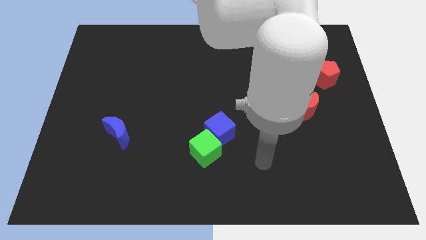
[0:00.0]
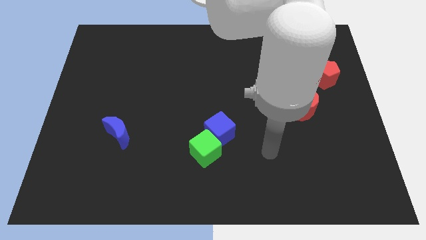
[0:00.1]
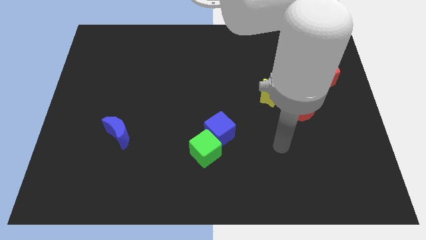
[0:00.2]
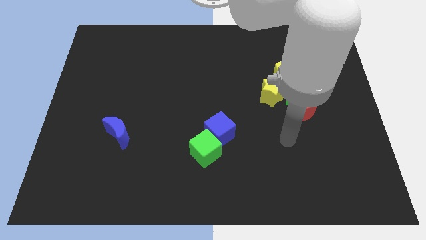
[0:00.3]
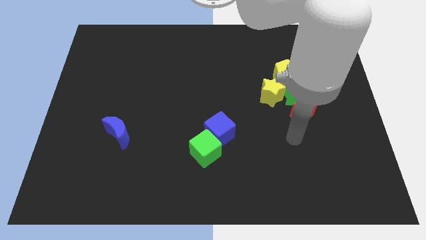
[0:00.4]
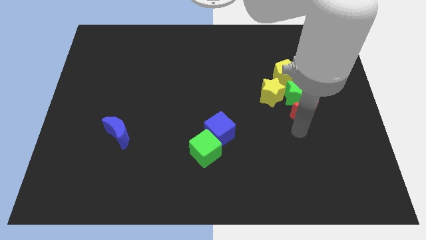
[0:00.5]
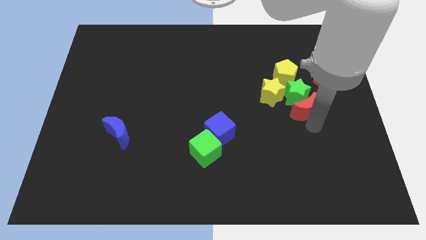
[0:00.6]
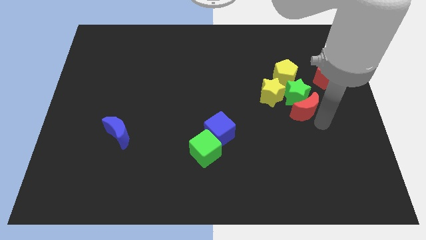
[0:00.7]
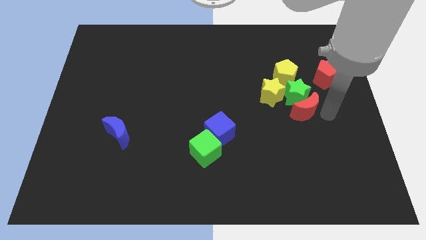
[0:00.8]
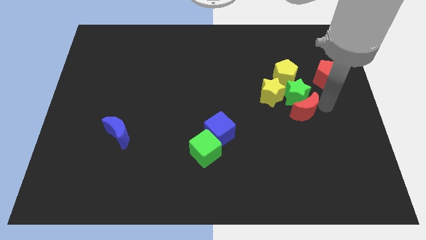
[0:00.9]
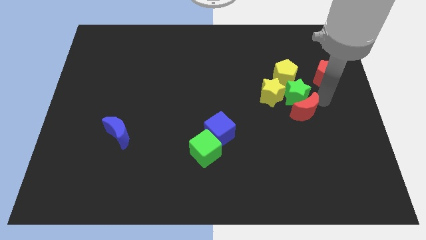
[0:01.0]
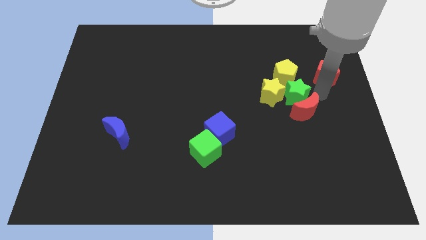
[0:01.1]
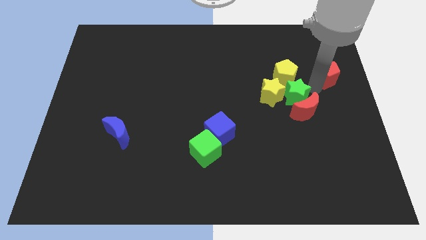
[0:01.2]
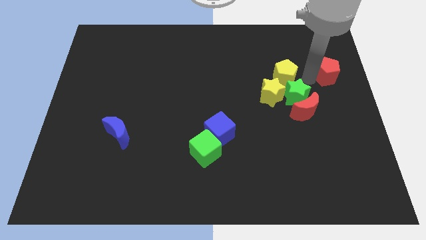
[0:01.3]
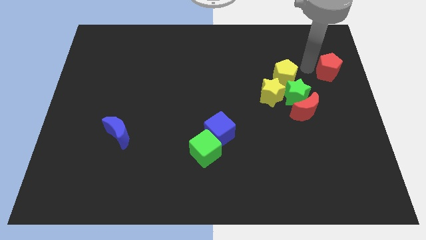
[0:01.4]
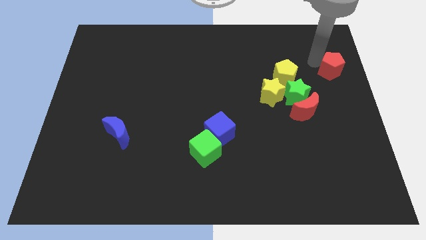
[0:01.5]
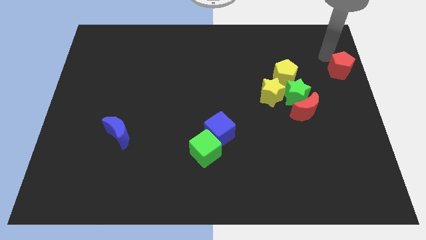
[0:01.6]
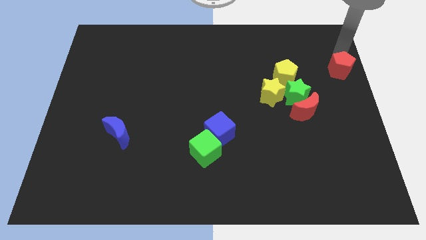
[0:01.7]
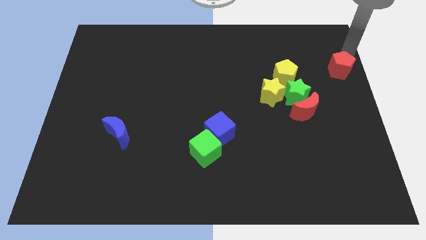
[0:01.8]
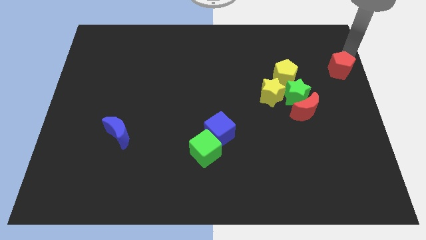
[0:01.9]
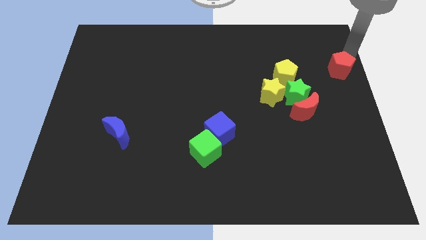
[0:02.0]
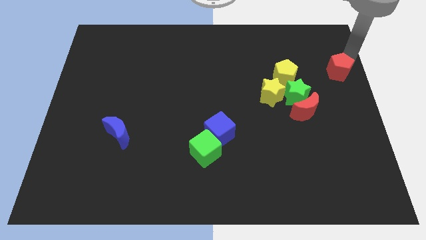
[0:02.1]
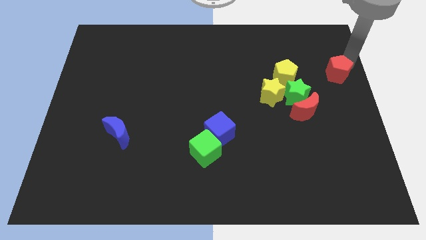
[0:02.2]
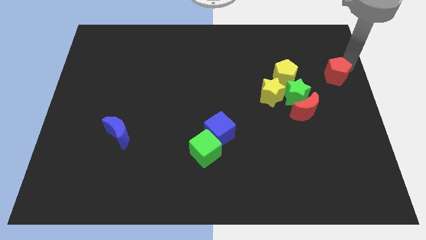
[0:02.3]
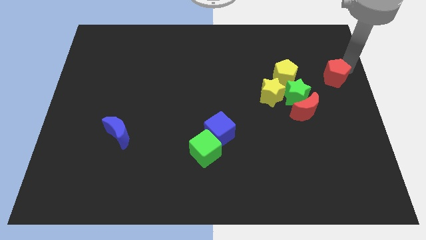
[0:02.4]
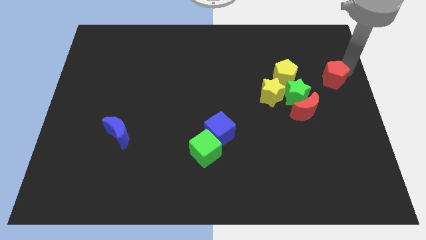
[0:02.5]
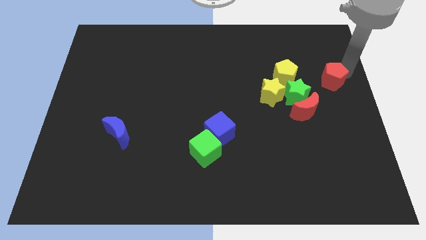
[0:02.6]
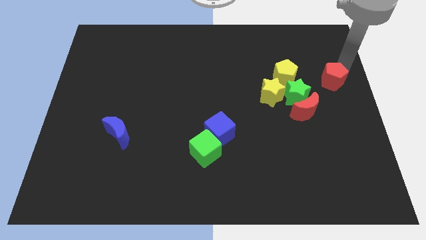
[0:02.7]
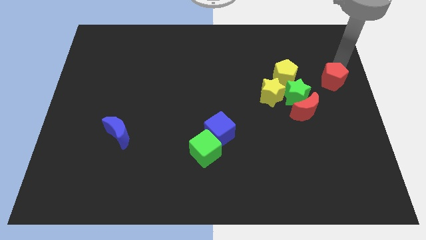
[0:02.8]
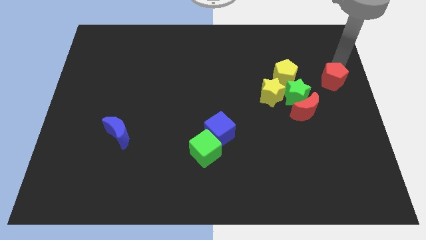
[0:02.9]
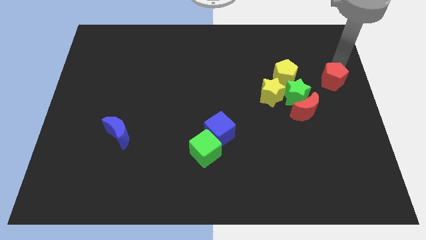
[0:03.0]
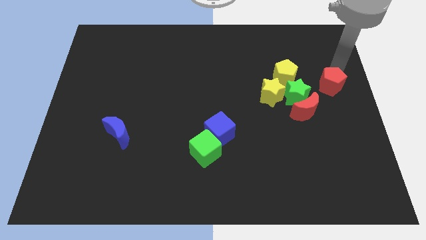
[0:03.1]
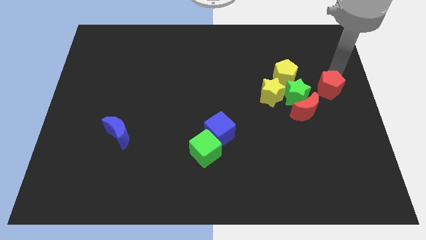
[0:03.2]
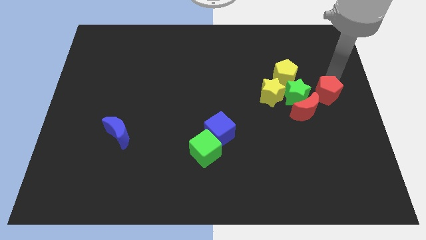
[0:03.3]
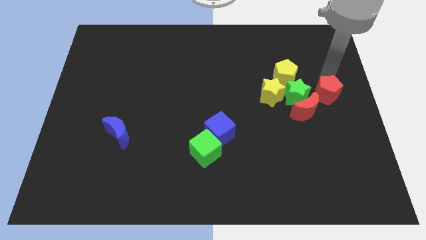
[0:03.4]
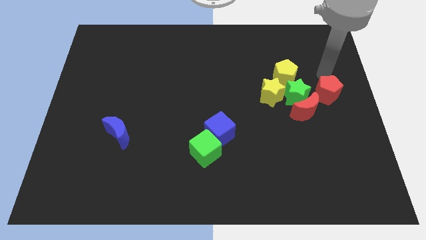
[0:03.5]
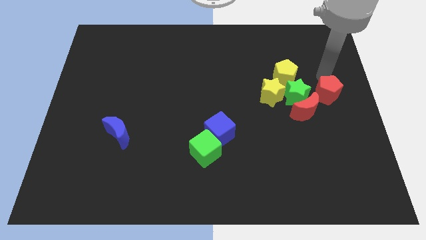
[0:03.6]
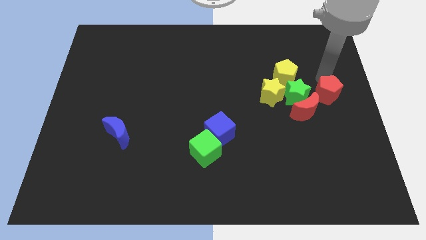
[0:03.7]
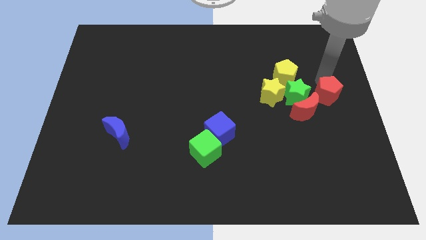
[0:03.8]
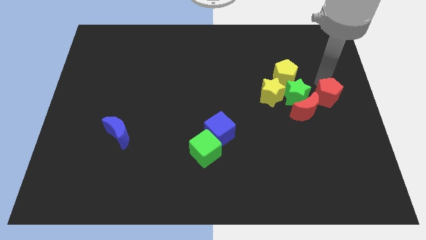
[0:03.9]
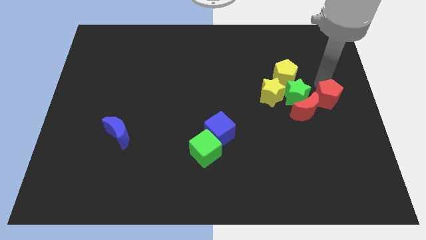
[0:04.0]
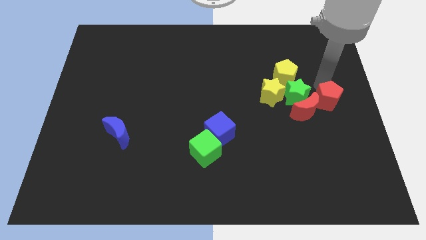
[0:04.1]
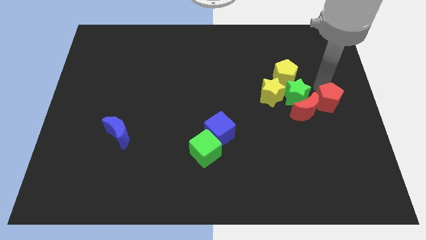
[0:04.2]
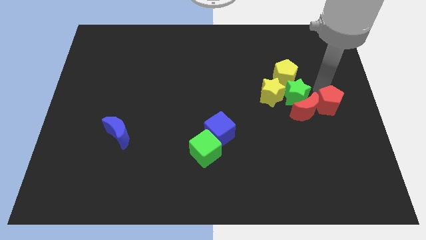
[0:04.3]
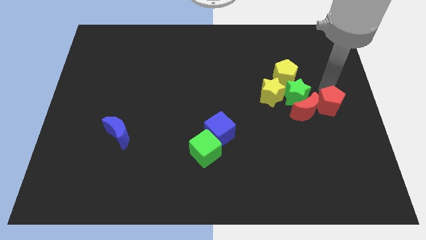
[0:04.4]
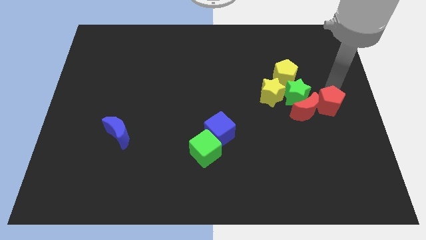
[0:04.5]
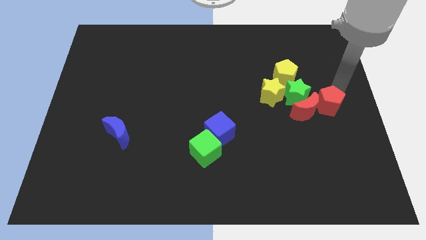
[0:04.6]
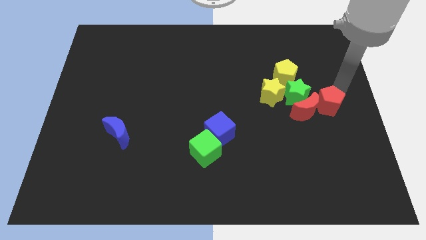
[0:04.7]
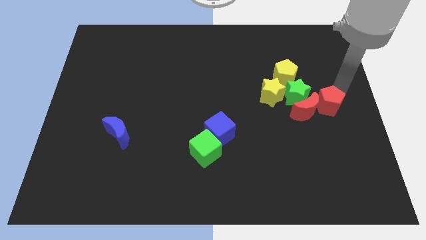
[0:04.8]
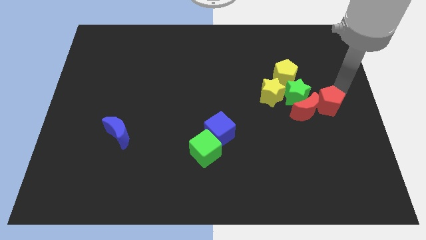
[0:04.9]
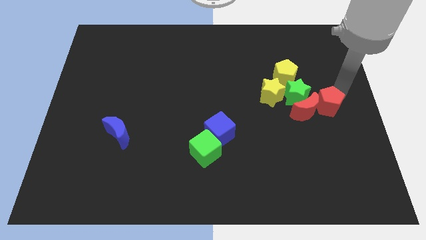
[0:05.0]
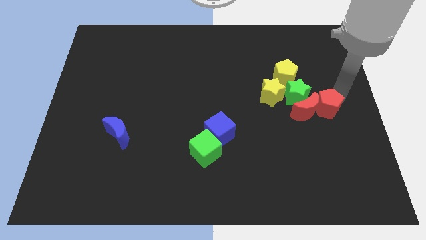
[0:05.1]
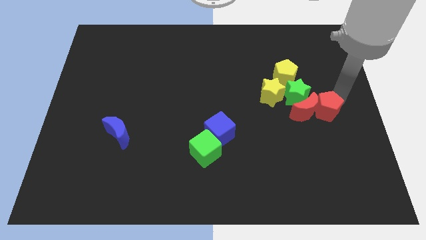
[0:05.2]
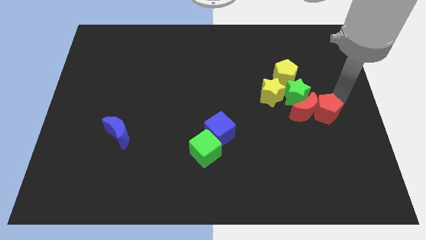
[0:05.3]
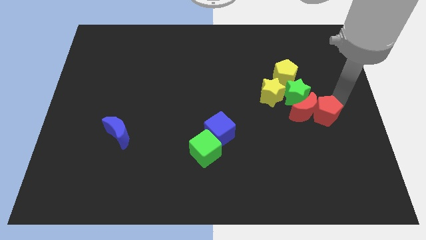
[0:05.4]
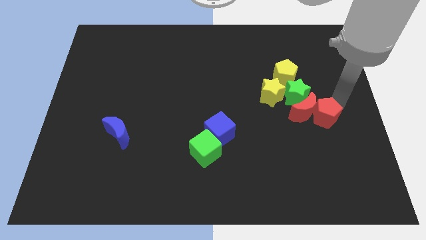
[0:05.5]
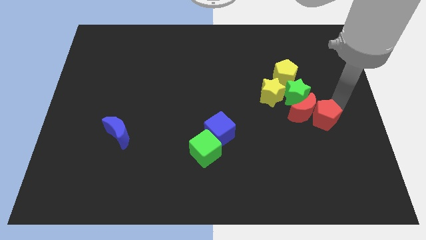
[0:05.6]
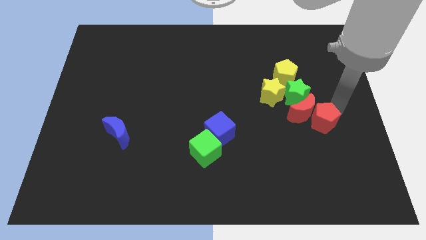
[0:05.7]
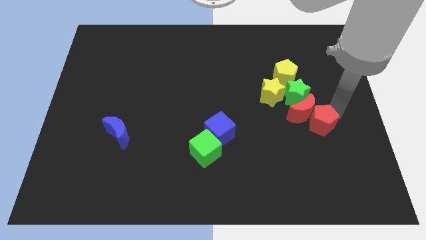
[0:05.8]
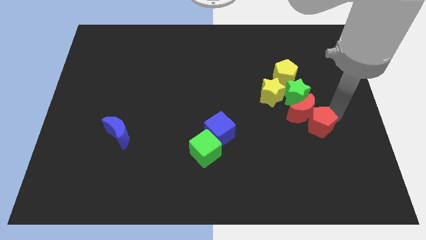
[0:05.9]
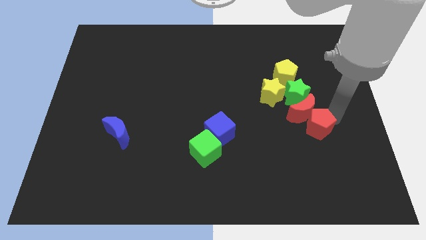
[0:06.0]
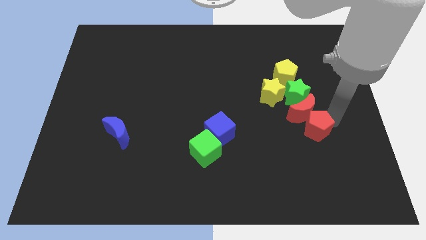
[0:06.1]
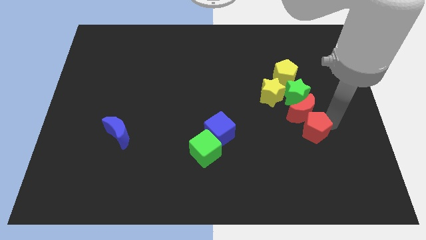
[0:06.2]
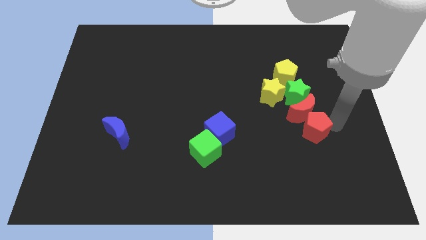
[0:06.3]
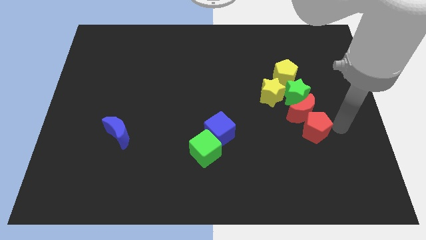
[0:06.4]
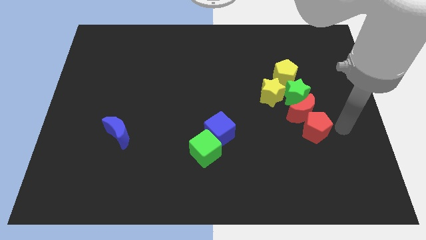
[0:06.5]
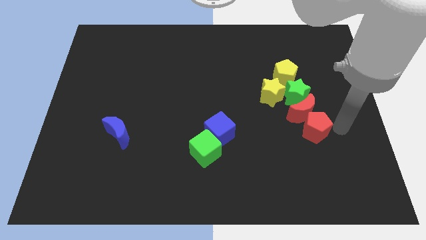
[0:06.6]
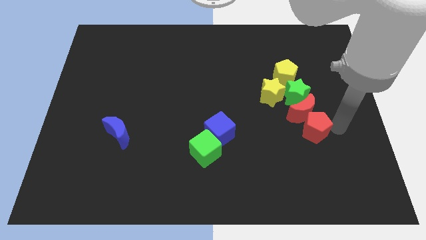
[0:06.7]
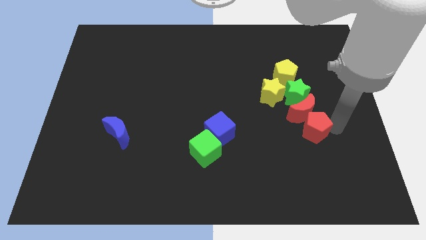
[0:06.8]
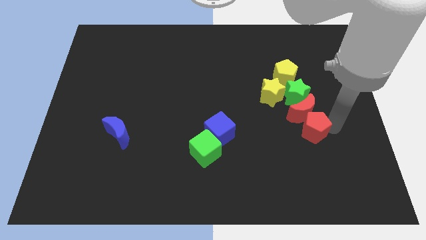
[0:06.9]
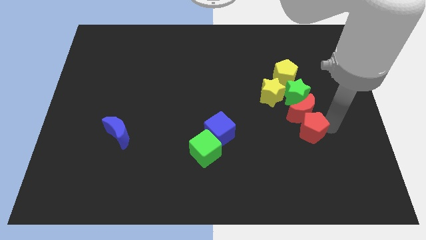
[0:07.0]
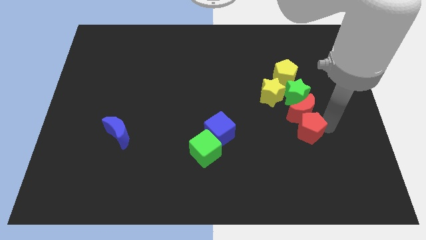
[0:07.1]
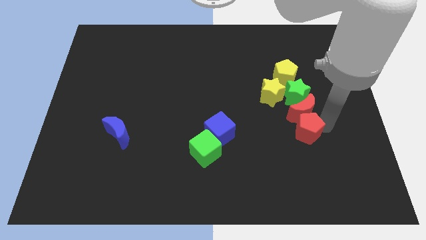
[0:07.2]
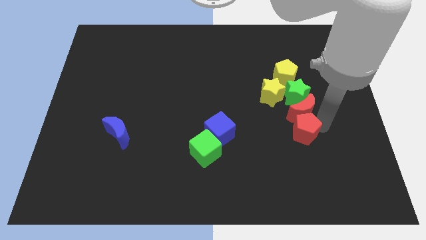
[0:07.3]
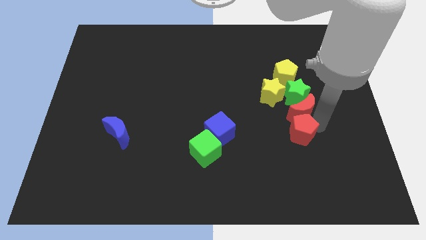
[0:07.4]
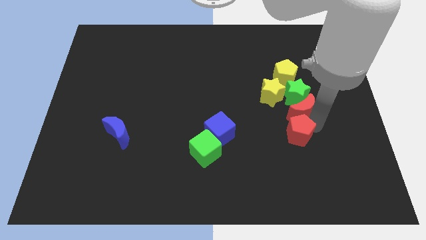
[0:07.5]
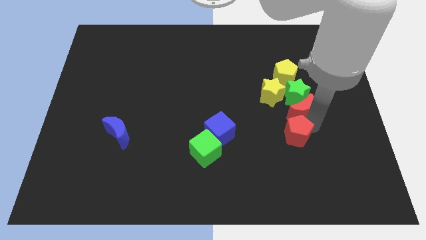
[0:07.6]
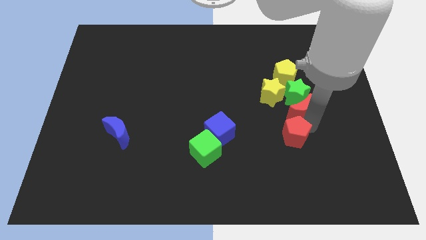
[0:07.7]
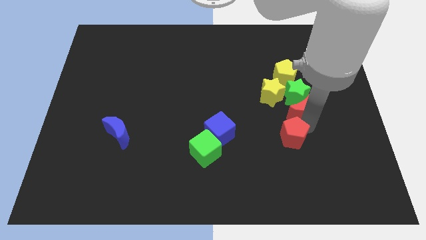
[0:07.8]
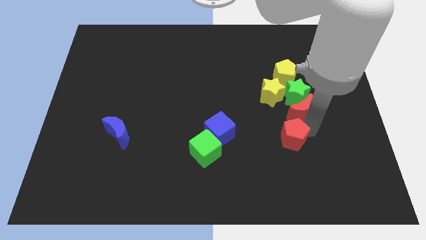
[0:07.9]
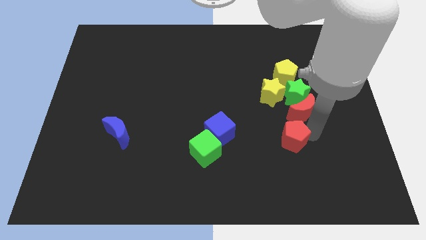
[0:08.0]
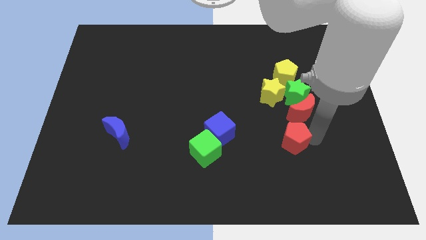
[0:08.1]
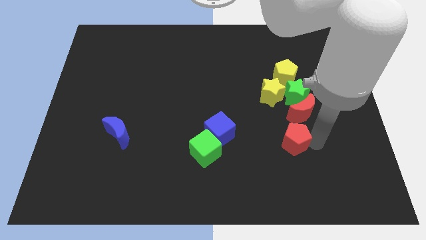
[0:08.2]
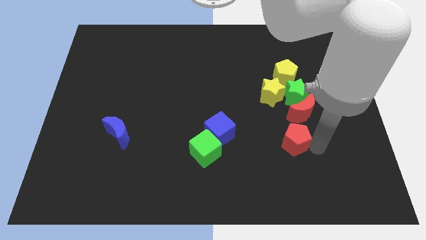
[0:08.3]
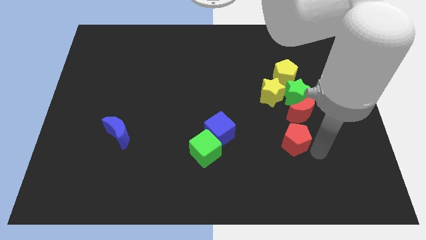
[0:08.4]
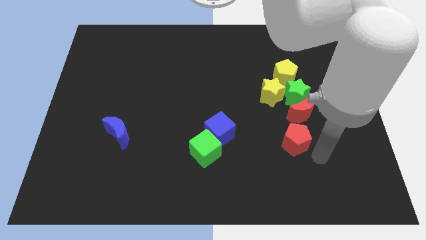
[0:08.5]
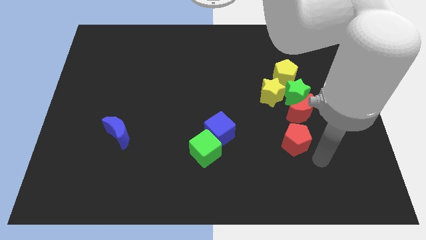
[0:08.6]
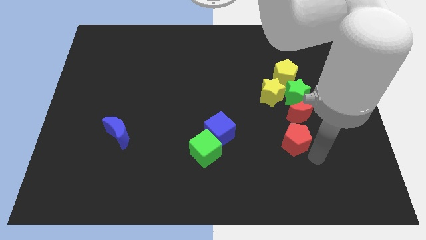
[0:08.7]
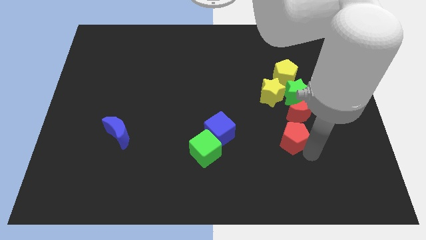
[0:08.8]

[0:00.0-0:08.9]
push the red pentagon down and left
